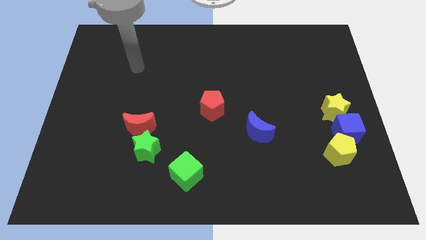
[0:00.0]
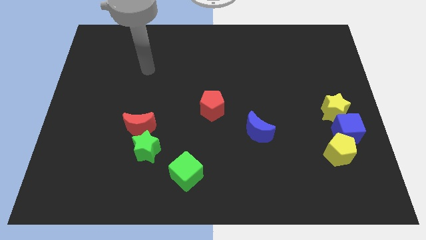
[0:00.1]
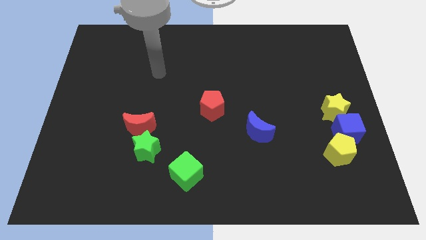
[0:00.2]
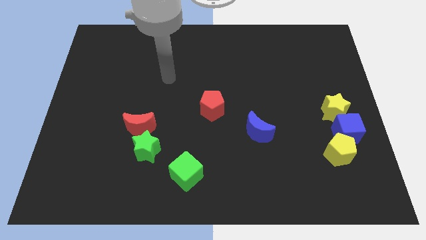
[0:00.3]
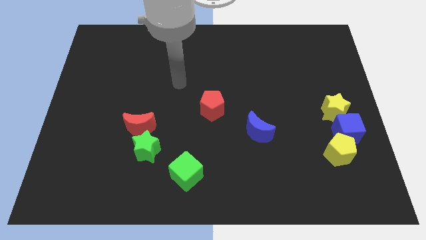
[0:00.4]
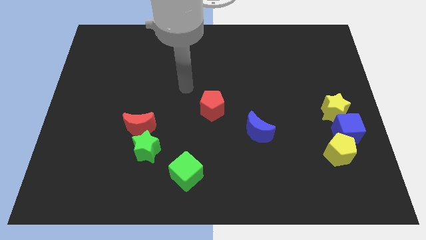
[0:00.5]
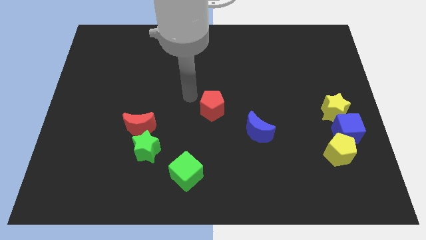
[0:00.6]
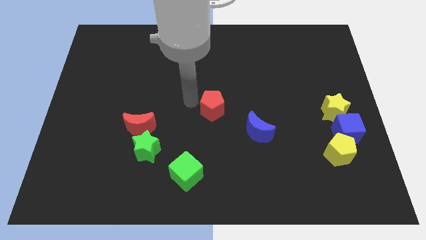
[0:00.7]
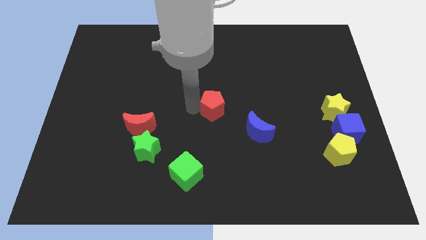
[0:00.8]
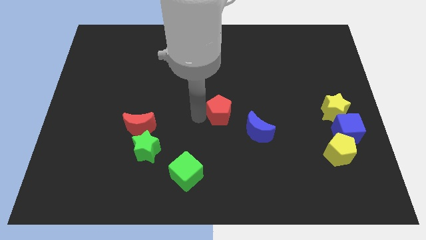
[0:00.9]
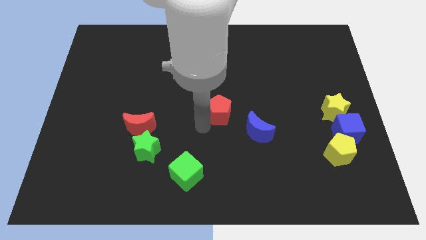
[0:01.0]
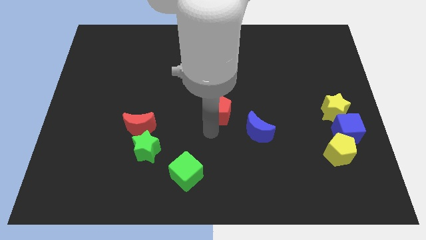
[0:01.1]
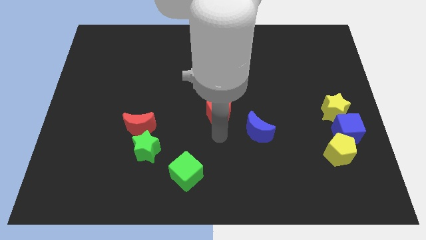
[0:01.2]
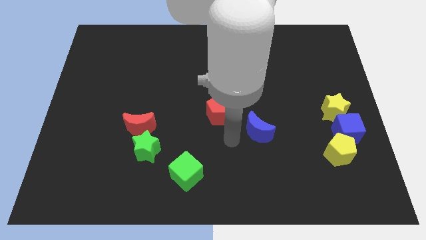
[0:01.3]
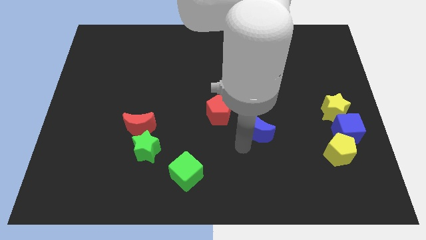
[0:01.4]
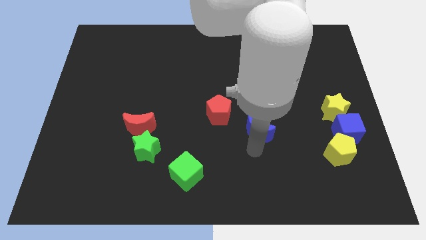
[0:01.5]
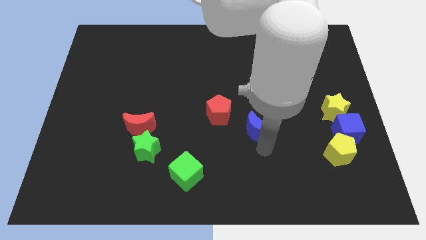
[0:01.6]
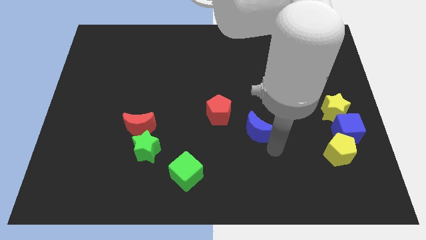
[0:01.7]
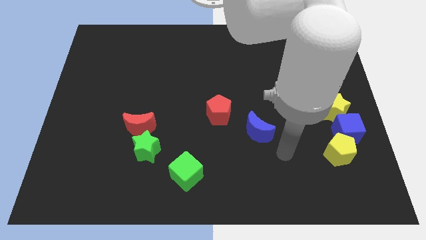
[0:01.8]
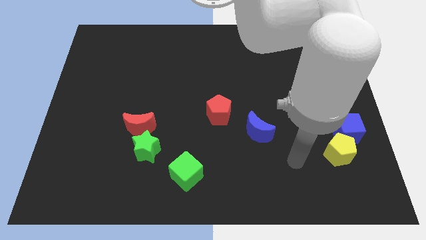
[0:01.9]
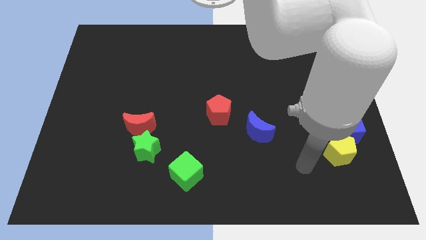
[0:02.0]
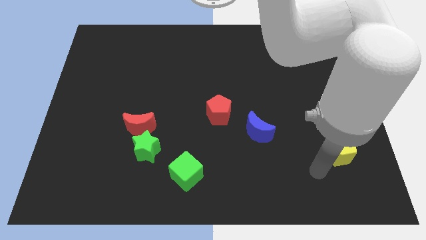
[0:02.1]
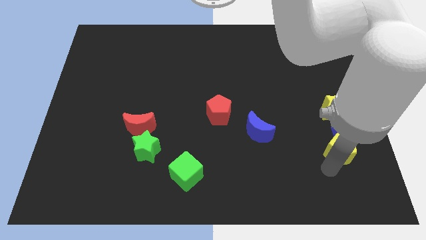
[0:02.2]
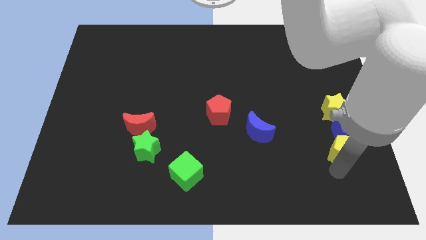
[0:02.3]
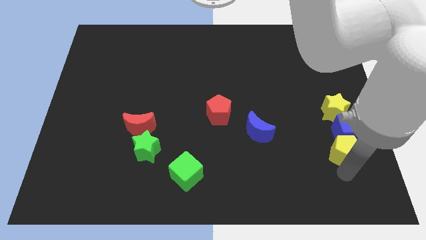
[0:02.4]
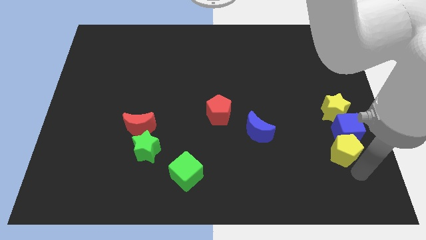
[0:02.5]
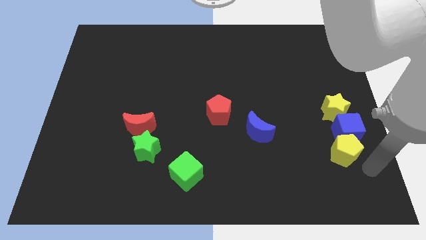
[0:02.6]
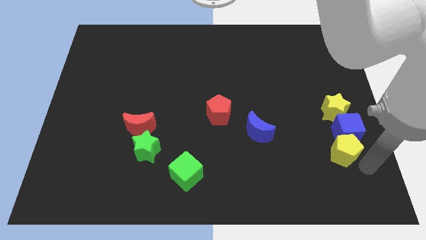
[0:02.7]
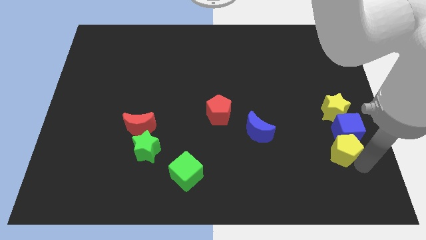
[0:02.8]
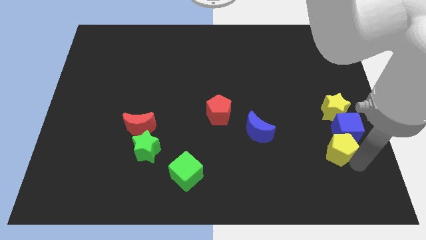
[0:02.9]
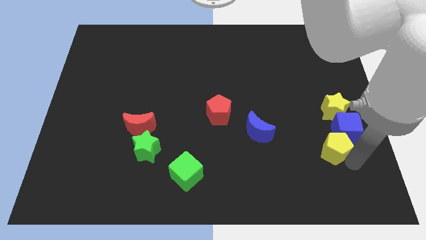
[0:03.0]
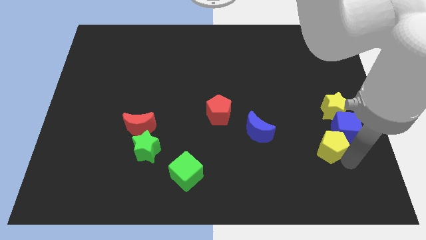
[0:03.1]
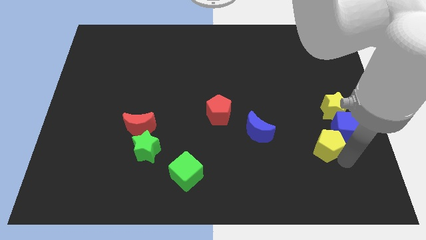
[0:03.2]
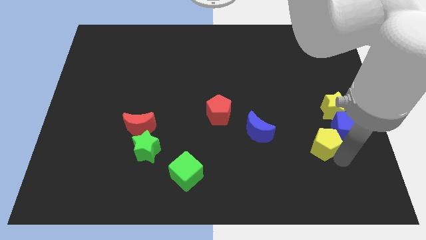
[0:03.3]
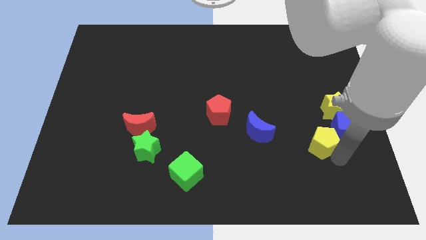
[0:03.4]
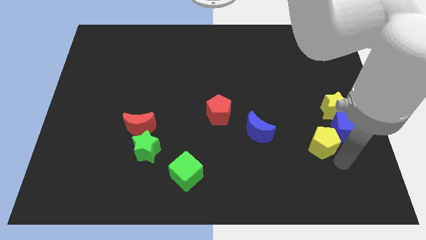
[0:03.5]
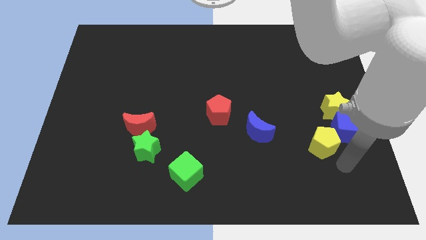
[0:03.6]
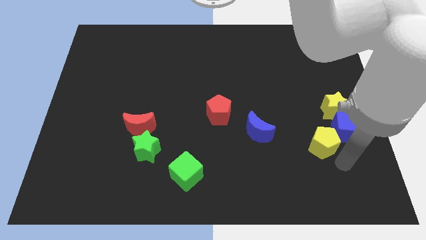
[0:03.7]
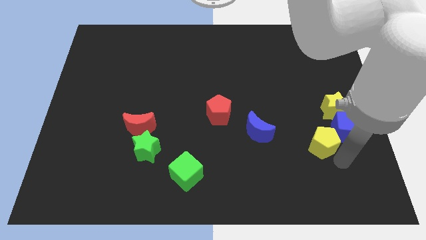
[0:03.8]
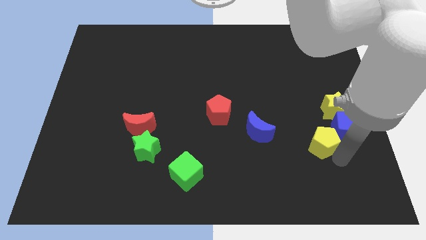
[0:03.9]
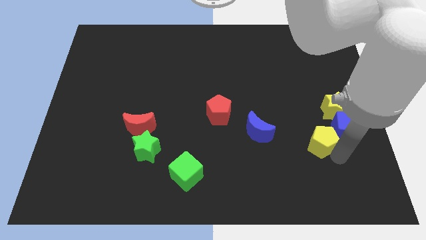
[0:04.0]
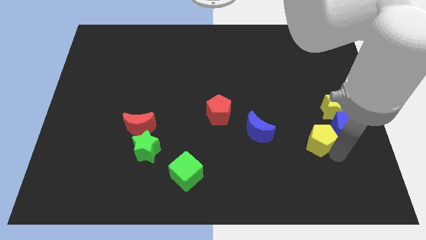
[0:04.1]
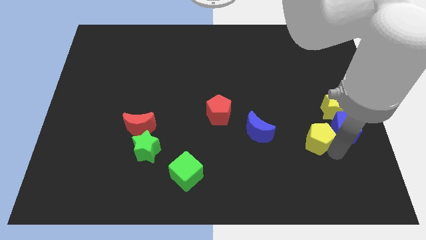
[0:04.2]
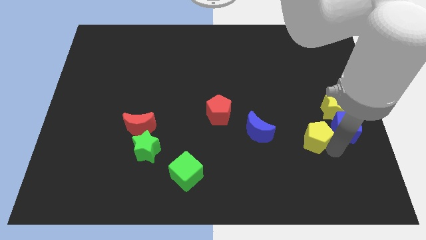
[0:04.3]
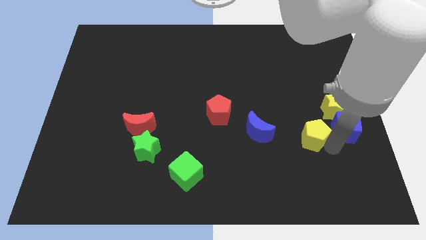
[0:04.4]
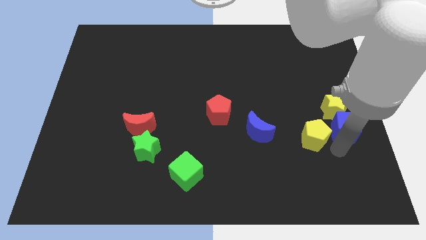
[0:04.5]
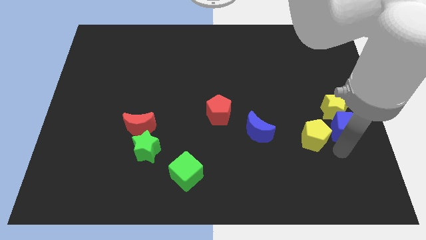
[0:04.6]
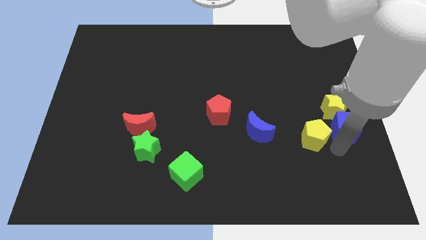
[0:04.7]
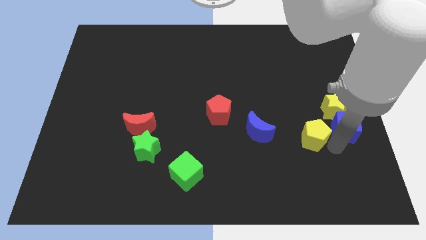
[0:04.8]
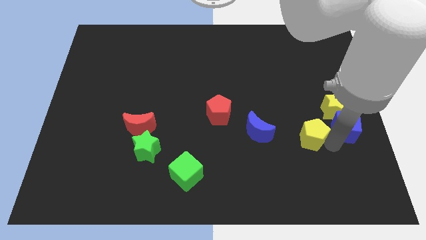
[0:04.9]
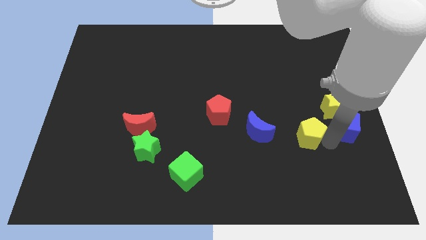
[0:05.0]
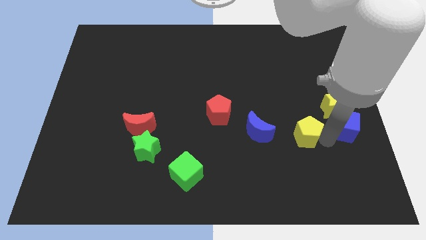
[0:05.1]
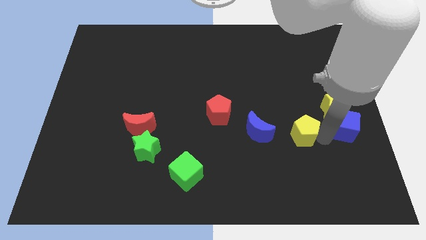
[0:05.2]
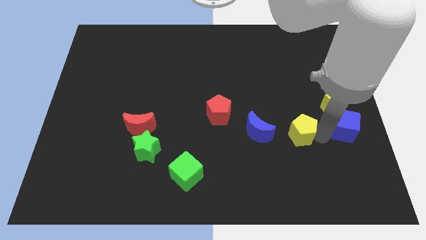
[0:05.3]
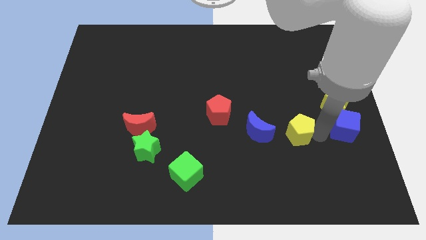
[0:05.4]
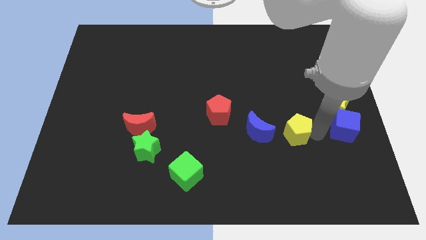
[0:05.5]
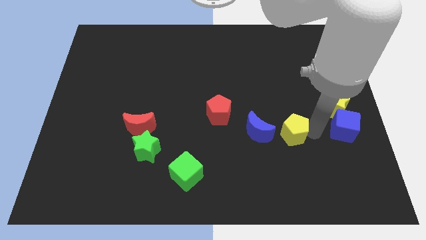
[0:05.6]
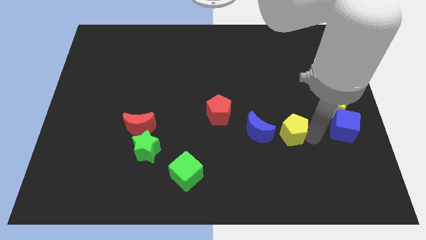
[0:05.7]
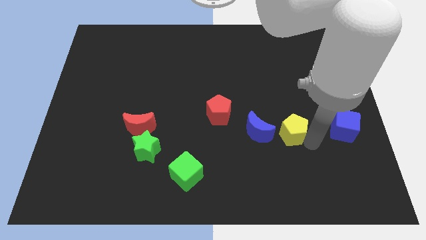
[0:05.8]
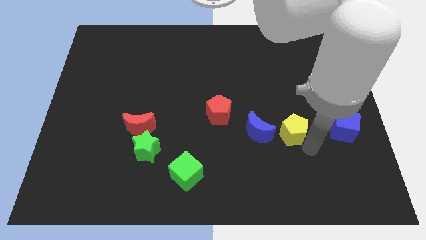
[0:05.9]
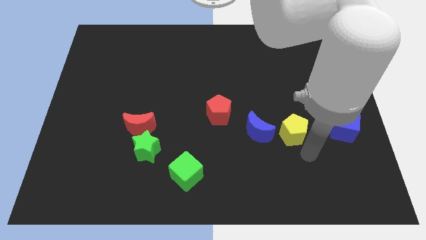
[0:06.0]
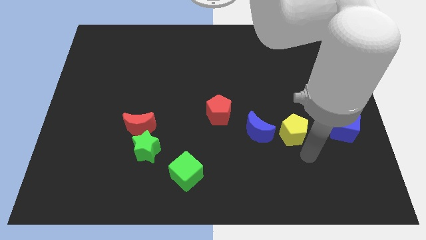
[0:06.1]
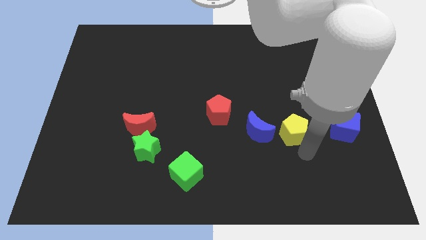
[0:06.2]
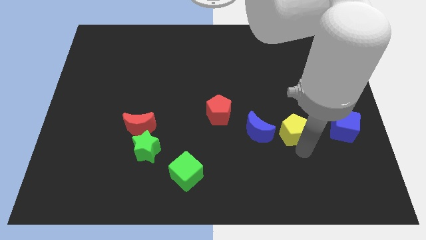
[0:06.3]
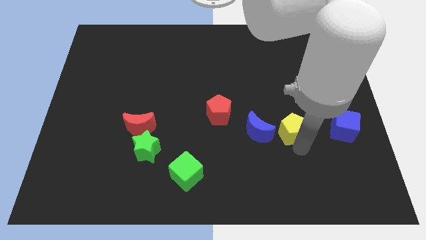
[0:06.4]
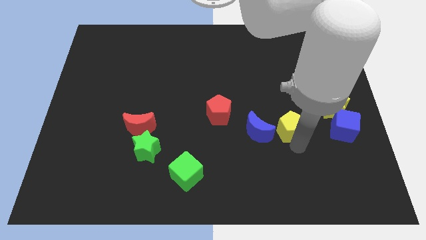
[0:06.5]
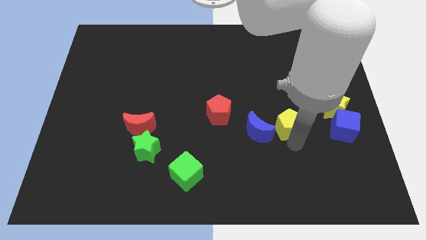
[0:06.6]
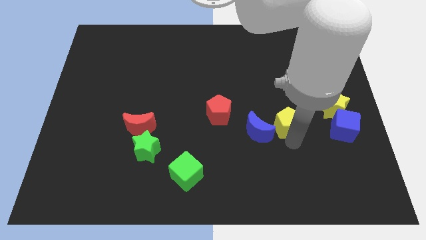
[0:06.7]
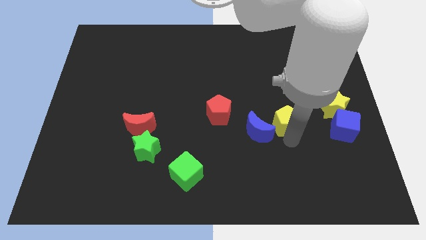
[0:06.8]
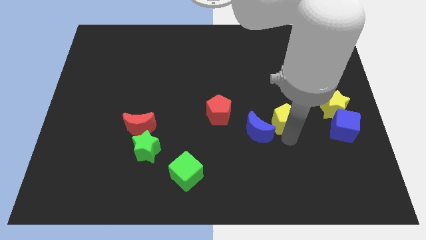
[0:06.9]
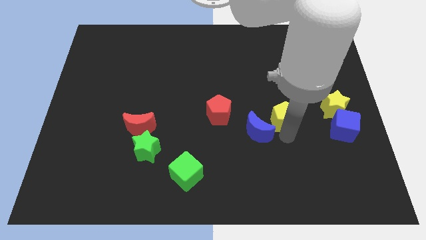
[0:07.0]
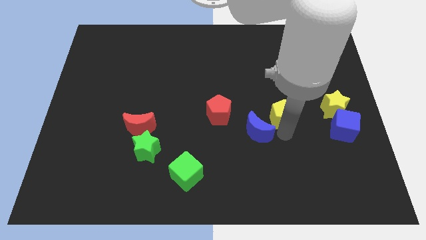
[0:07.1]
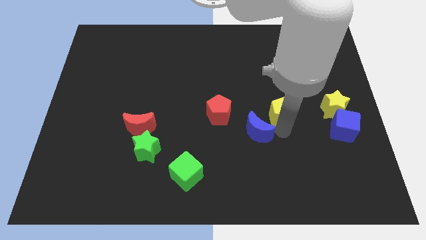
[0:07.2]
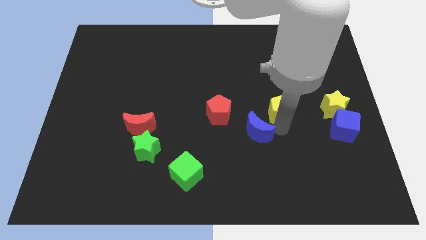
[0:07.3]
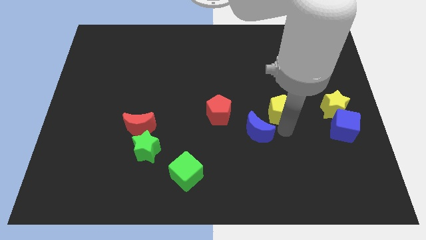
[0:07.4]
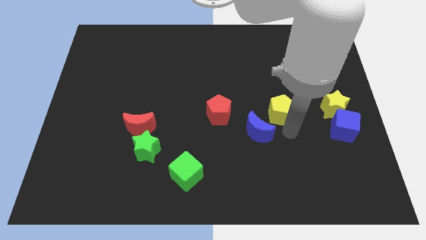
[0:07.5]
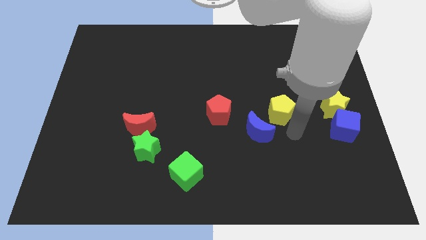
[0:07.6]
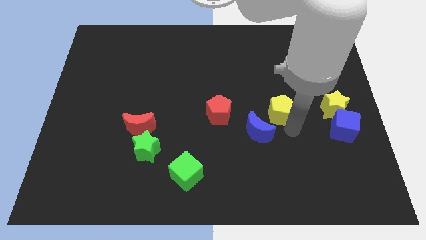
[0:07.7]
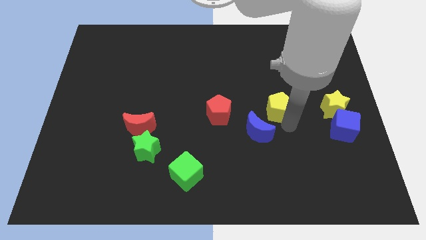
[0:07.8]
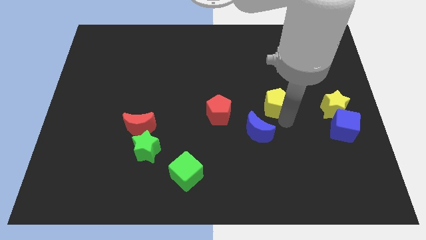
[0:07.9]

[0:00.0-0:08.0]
push the yellow pentagon to the top of the blue moon
